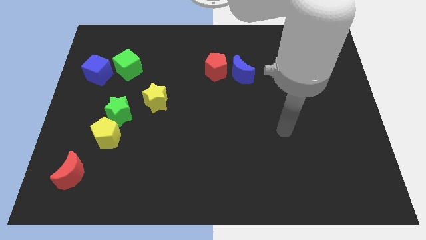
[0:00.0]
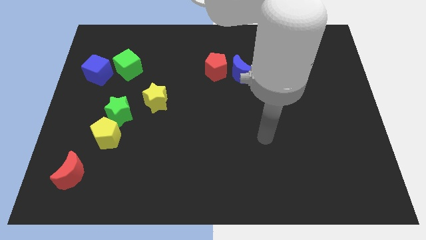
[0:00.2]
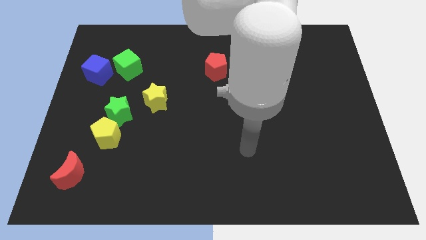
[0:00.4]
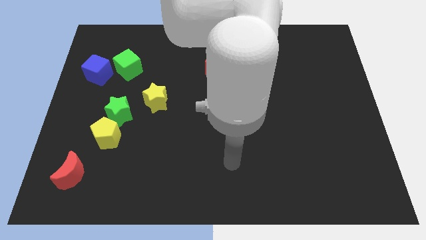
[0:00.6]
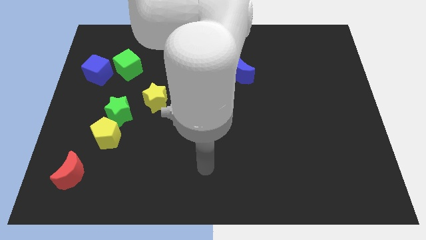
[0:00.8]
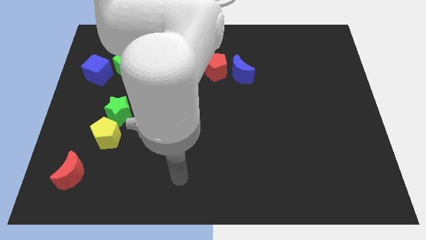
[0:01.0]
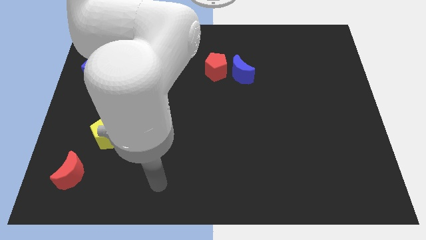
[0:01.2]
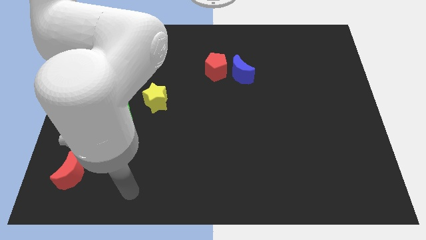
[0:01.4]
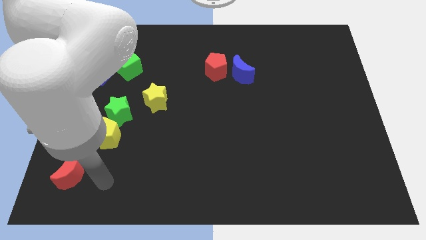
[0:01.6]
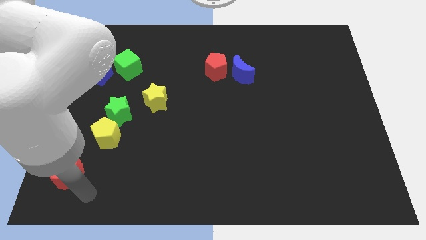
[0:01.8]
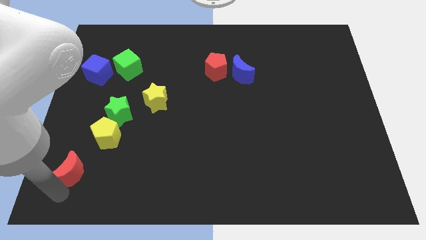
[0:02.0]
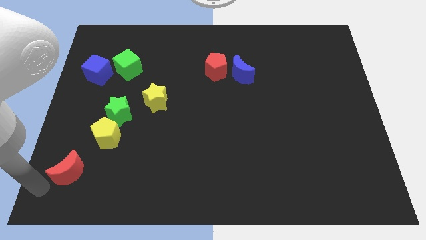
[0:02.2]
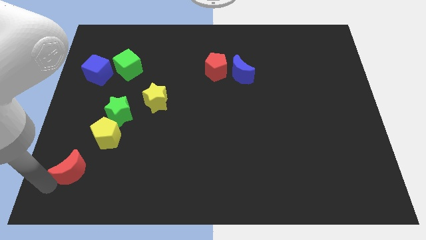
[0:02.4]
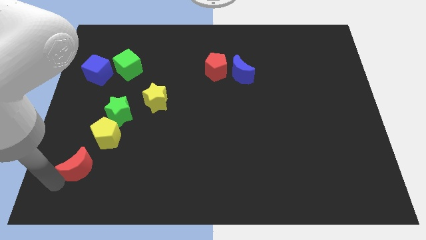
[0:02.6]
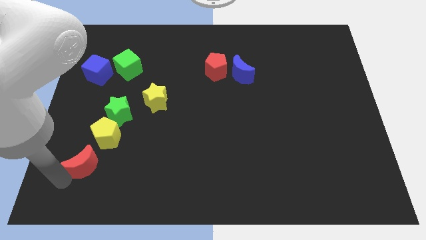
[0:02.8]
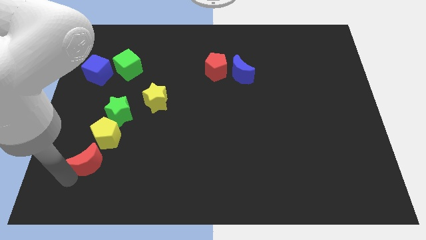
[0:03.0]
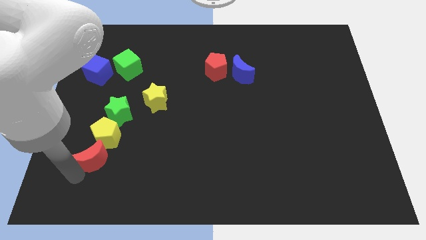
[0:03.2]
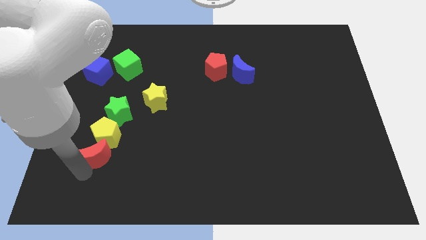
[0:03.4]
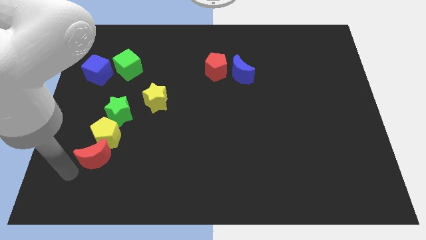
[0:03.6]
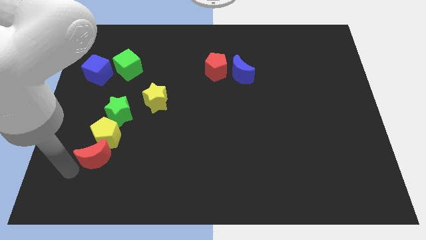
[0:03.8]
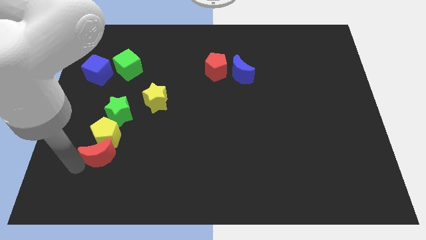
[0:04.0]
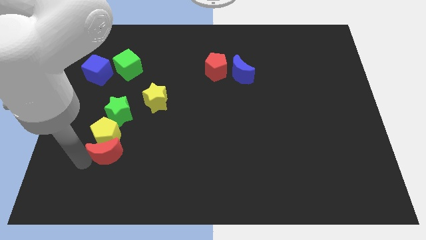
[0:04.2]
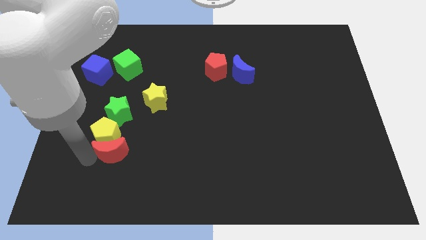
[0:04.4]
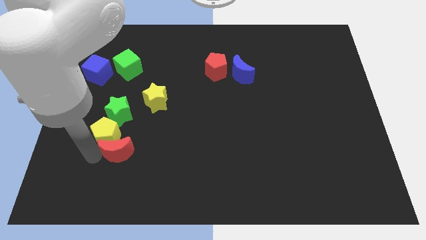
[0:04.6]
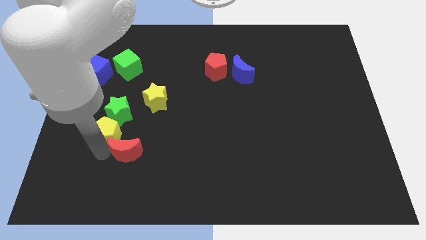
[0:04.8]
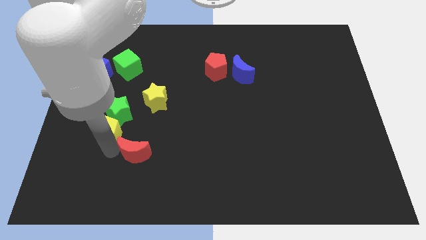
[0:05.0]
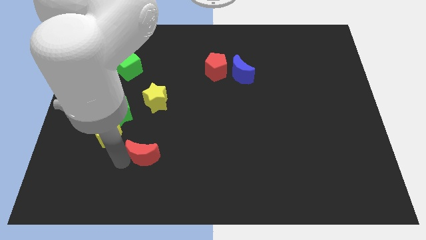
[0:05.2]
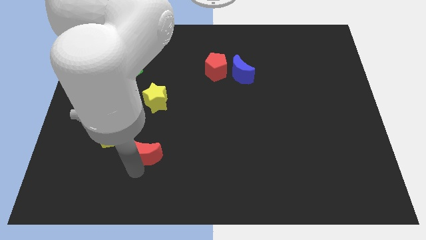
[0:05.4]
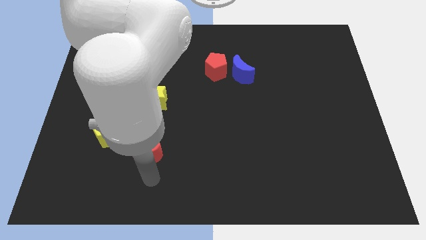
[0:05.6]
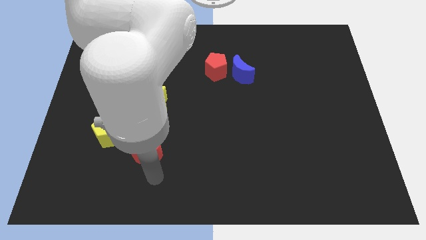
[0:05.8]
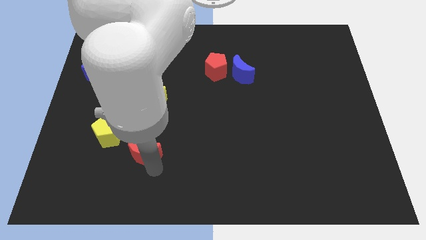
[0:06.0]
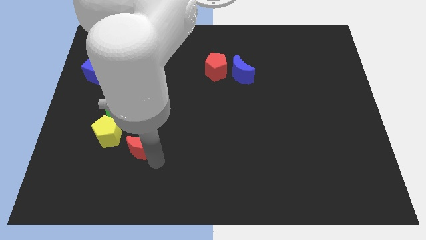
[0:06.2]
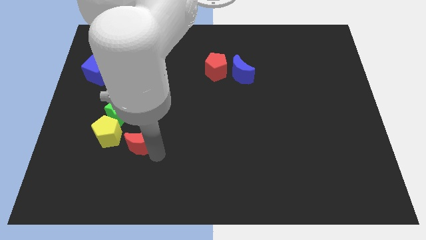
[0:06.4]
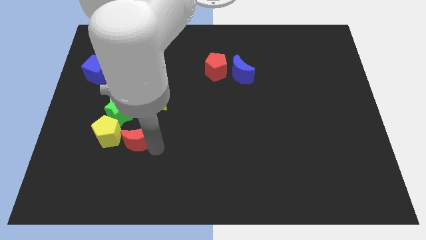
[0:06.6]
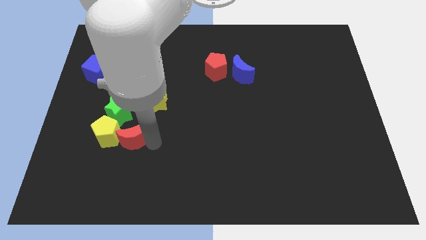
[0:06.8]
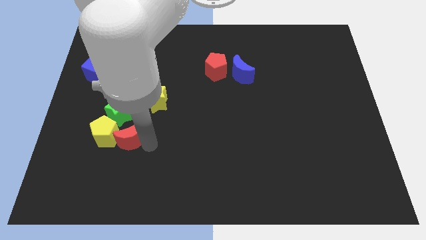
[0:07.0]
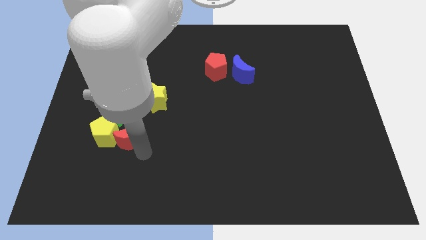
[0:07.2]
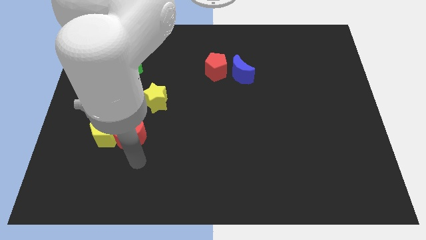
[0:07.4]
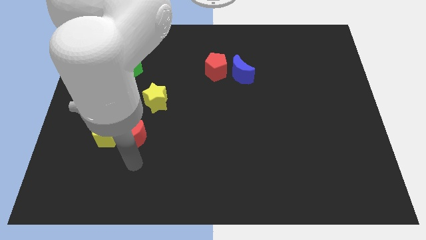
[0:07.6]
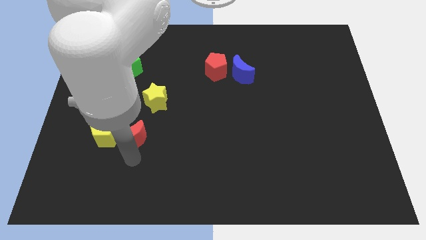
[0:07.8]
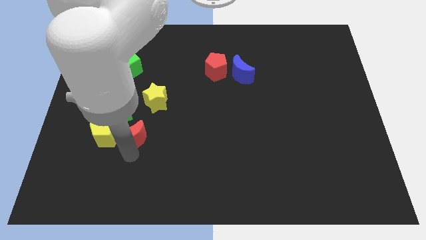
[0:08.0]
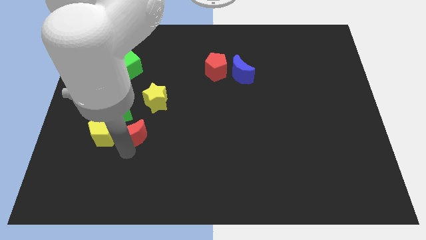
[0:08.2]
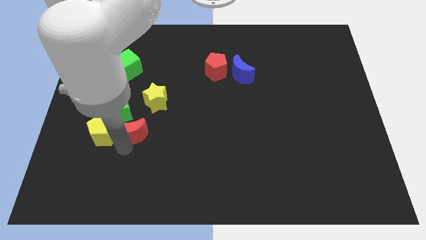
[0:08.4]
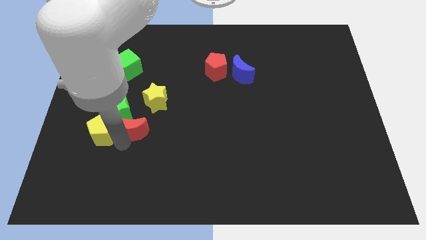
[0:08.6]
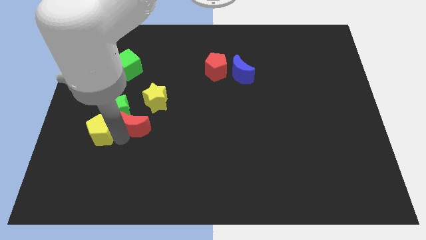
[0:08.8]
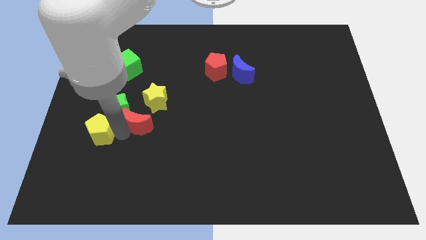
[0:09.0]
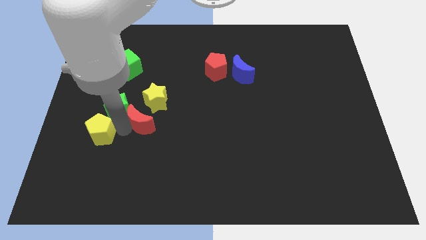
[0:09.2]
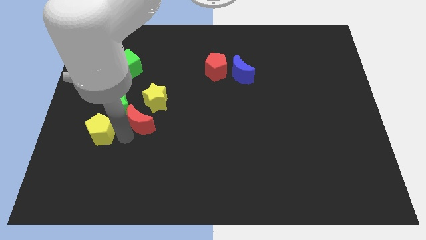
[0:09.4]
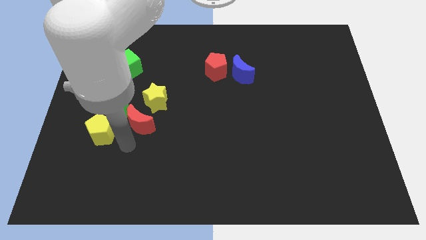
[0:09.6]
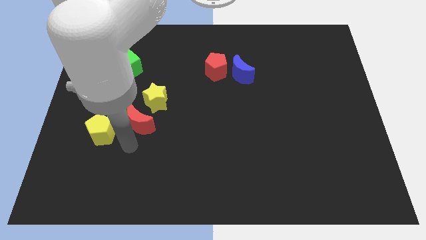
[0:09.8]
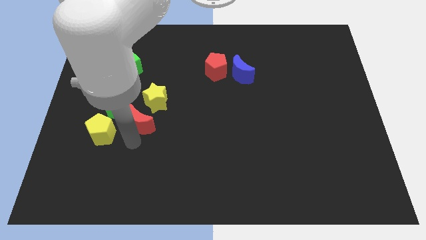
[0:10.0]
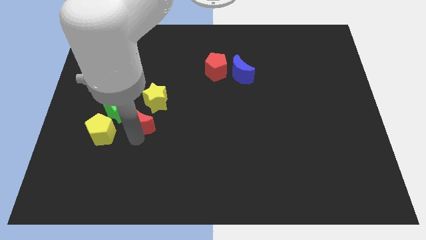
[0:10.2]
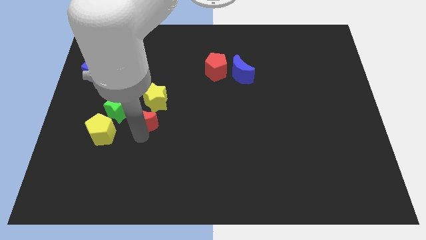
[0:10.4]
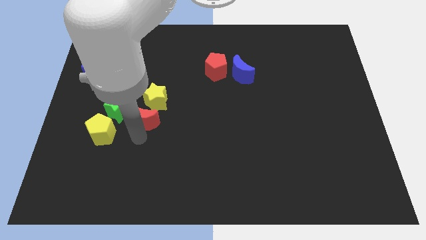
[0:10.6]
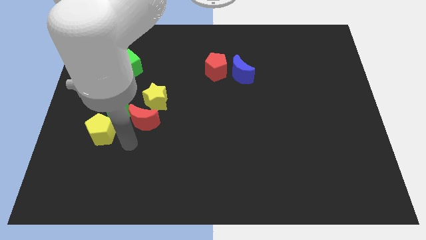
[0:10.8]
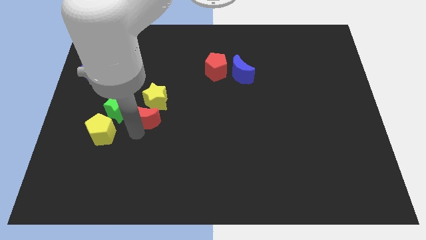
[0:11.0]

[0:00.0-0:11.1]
put the red moon close to the yellow star

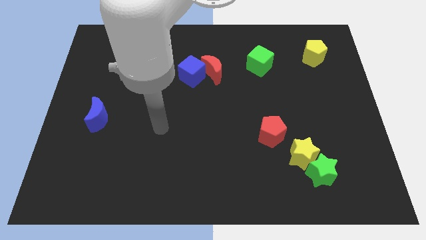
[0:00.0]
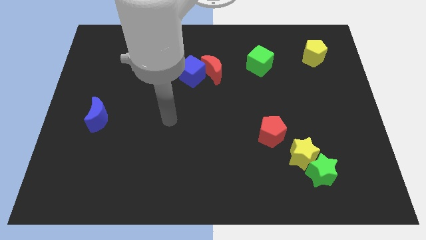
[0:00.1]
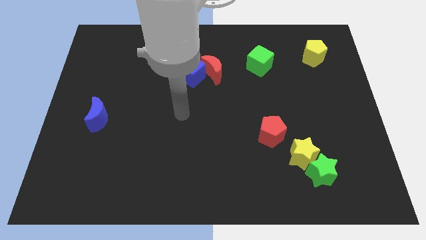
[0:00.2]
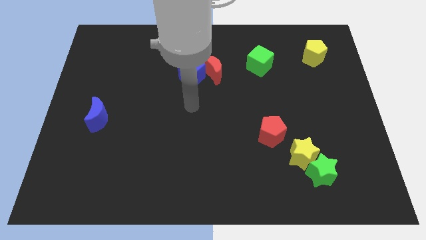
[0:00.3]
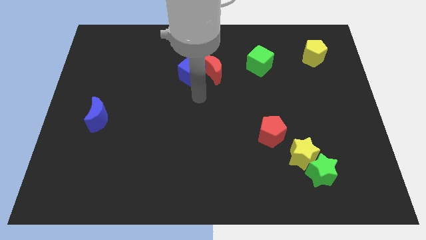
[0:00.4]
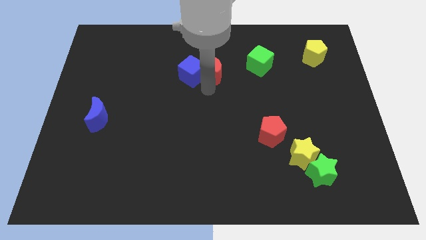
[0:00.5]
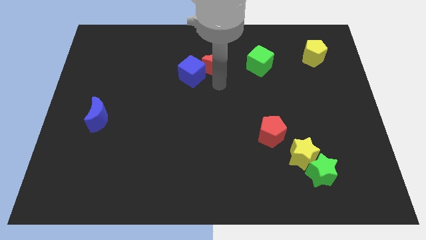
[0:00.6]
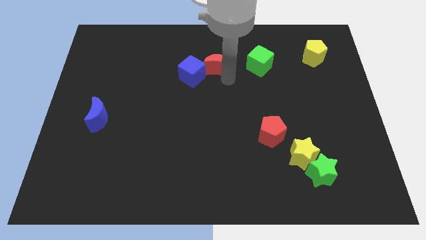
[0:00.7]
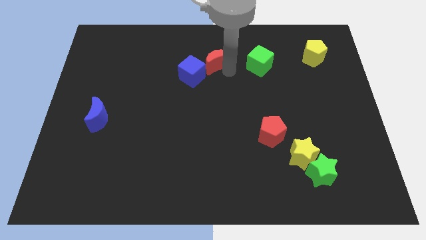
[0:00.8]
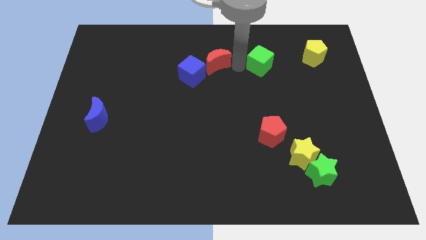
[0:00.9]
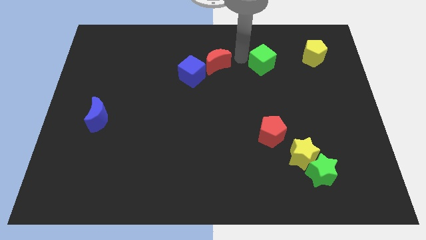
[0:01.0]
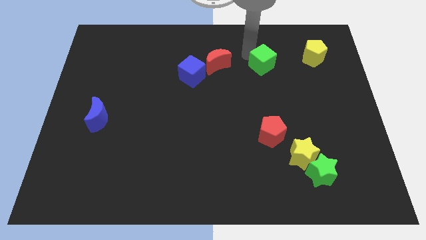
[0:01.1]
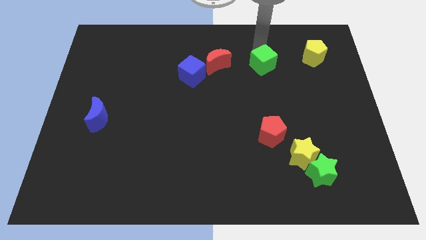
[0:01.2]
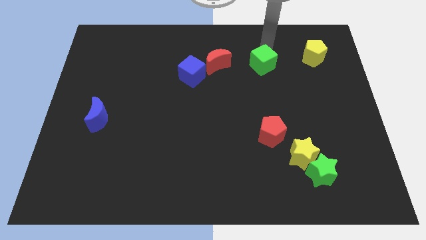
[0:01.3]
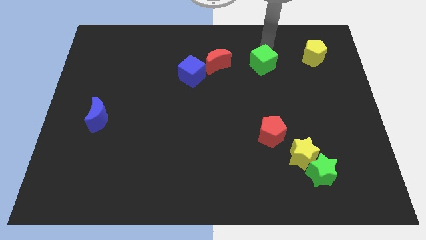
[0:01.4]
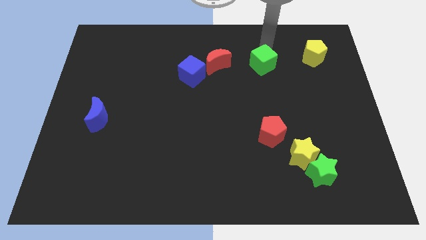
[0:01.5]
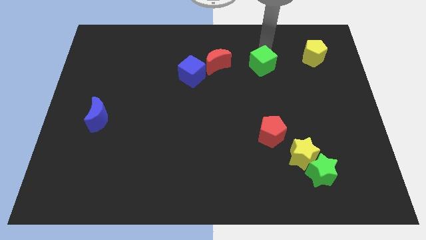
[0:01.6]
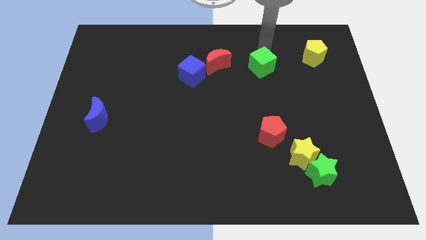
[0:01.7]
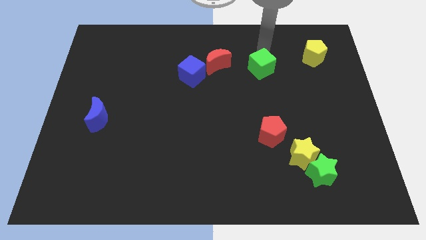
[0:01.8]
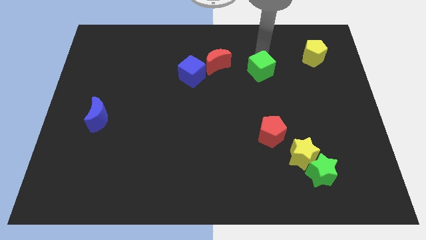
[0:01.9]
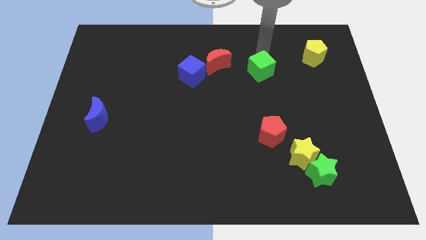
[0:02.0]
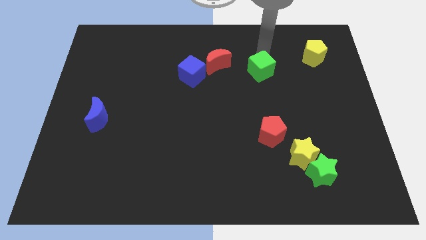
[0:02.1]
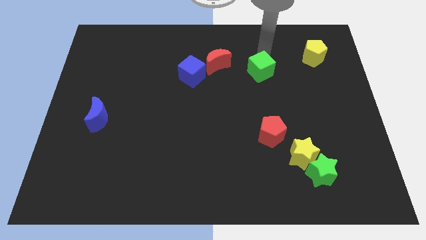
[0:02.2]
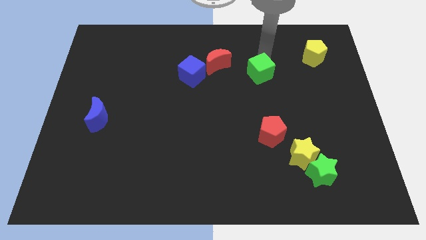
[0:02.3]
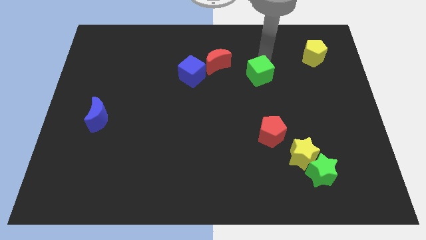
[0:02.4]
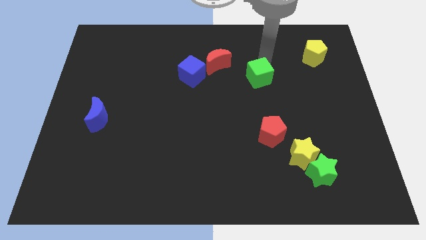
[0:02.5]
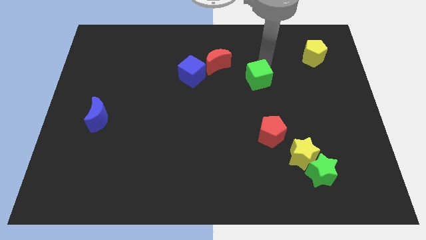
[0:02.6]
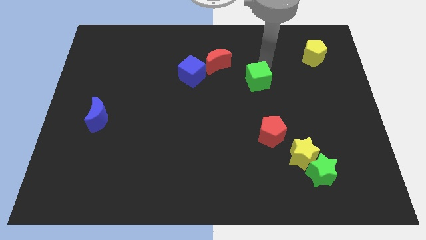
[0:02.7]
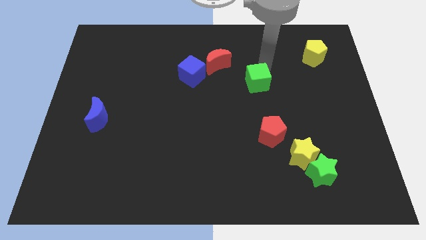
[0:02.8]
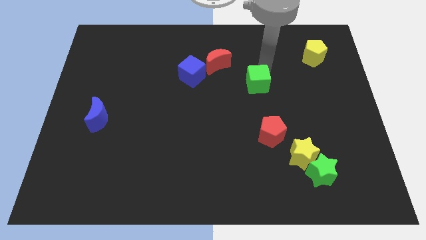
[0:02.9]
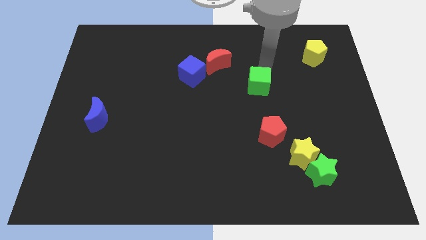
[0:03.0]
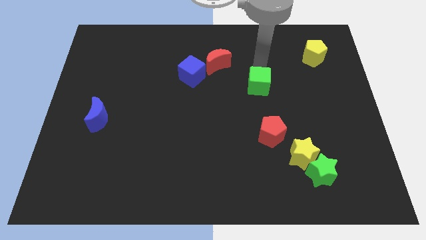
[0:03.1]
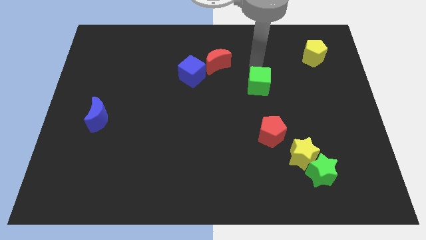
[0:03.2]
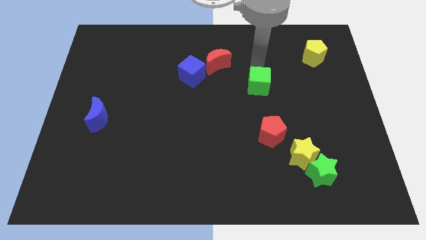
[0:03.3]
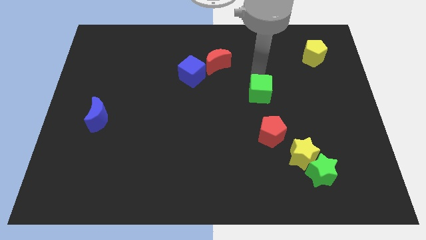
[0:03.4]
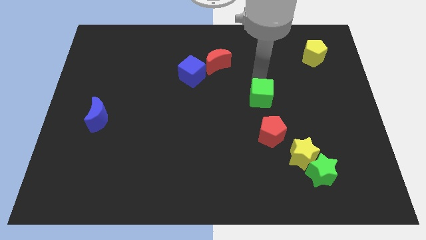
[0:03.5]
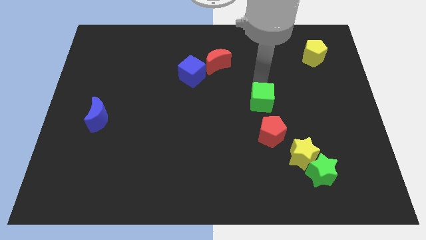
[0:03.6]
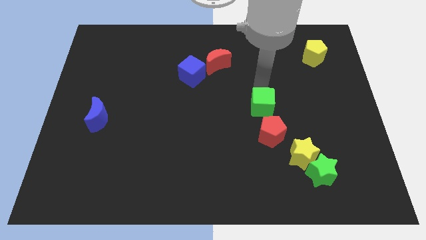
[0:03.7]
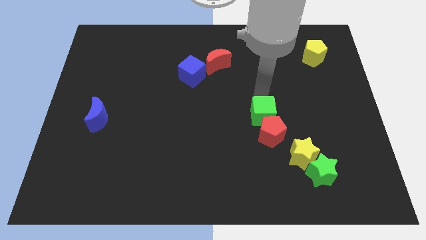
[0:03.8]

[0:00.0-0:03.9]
push the green cube close to the red pentagon
